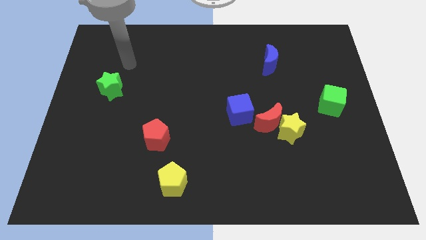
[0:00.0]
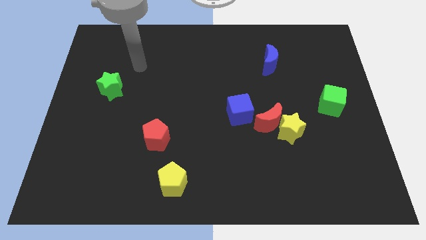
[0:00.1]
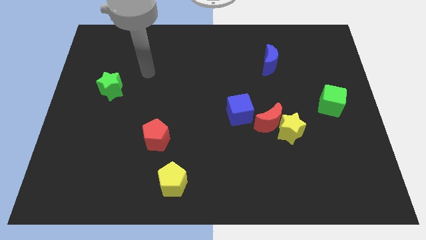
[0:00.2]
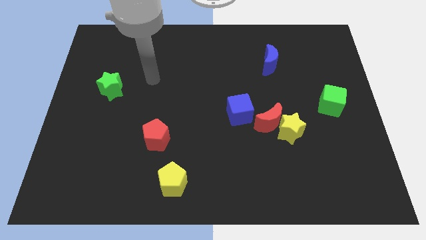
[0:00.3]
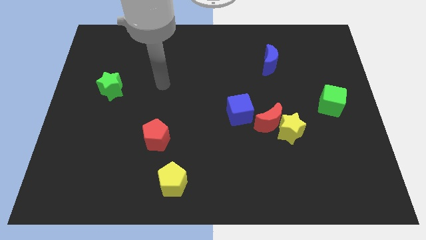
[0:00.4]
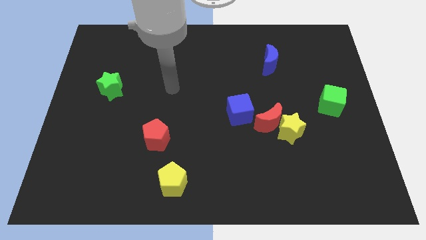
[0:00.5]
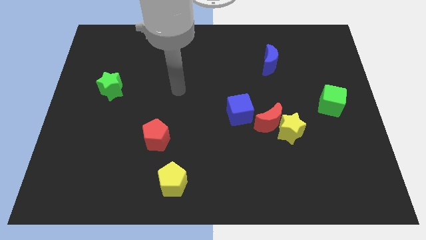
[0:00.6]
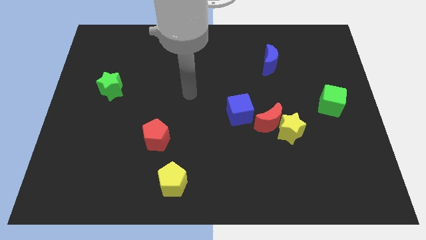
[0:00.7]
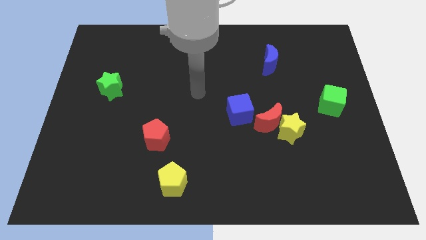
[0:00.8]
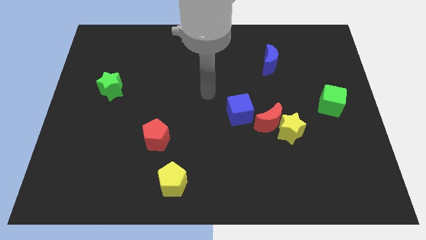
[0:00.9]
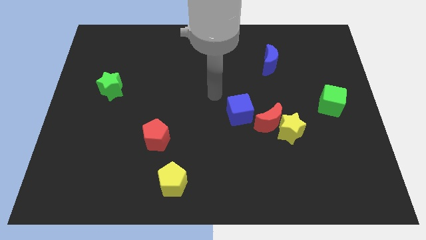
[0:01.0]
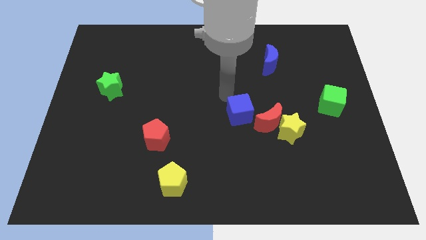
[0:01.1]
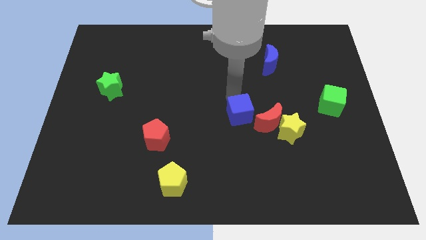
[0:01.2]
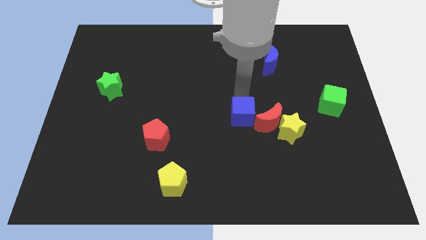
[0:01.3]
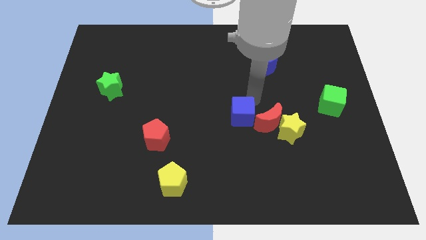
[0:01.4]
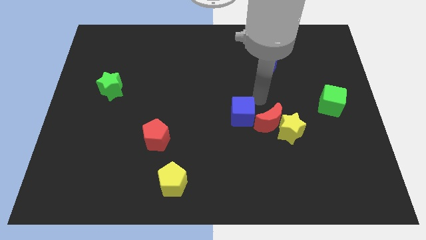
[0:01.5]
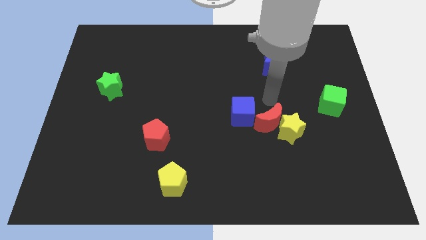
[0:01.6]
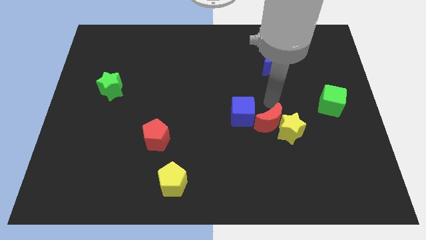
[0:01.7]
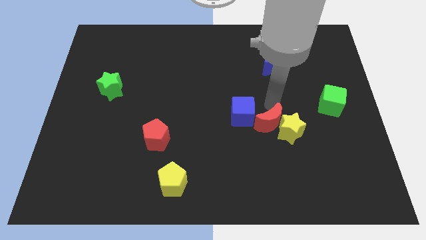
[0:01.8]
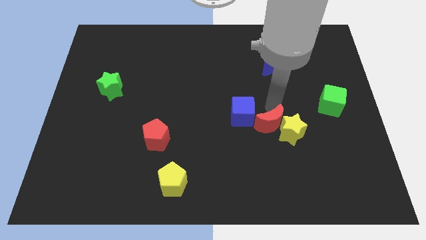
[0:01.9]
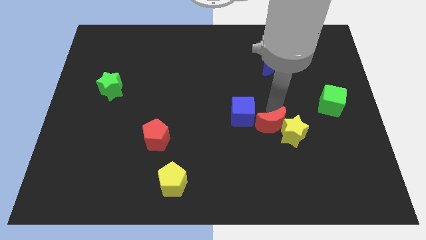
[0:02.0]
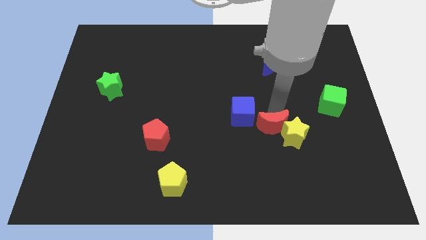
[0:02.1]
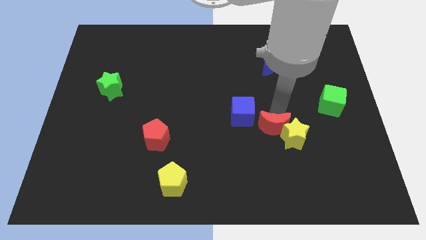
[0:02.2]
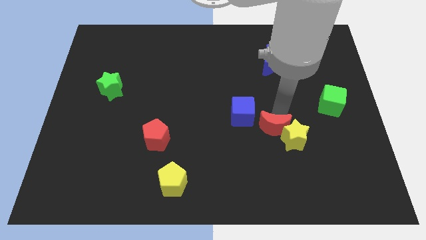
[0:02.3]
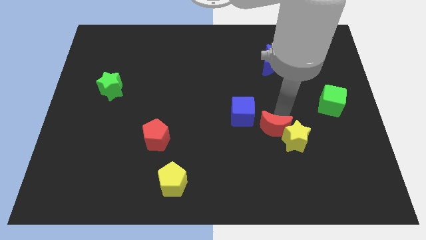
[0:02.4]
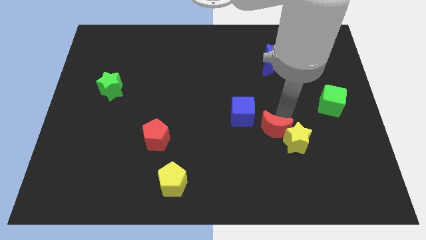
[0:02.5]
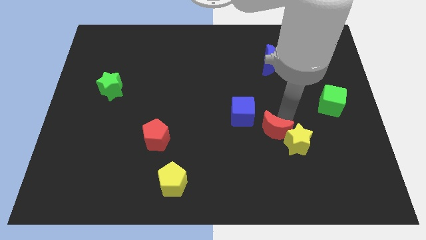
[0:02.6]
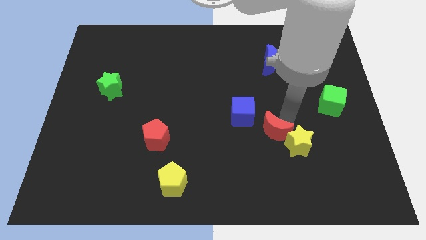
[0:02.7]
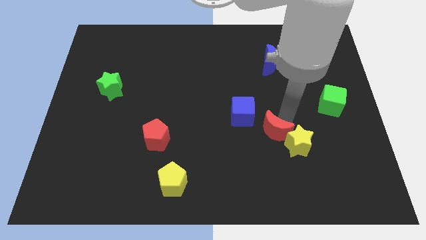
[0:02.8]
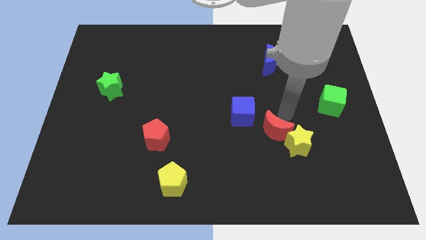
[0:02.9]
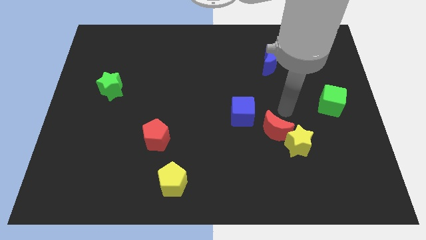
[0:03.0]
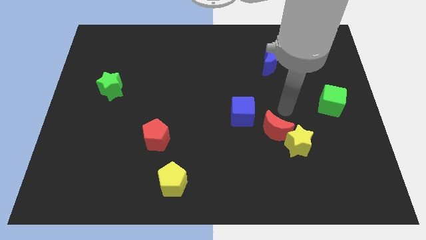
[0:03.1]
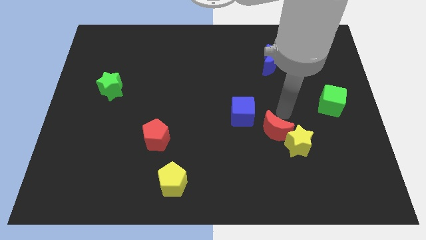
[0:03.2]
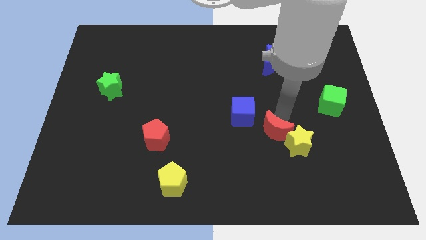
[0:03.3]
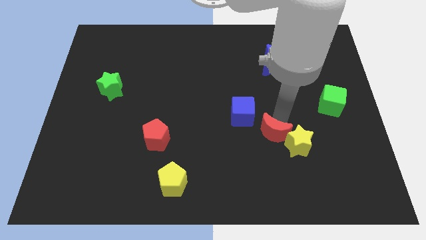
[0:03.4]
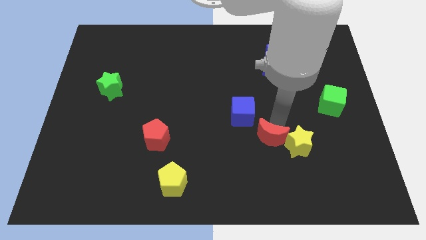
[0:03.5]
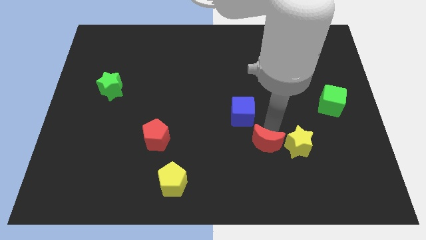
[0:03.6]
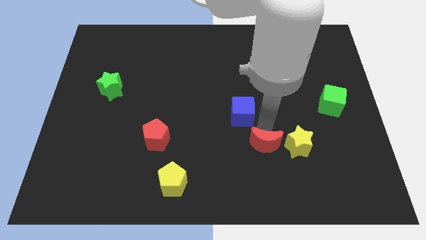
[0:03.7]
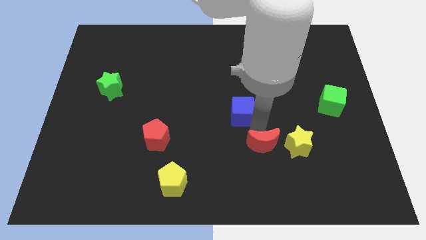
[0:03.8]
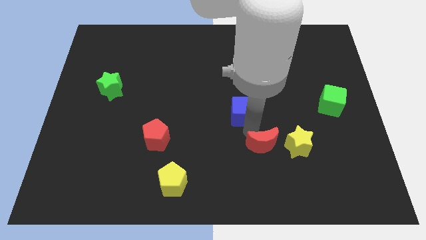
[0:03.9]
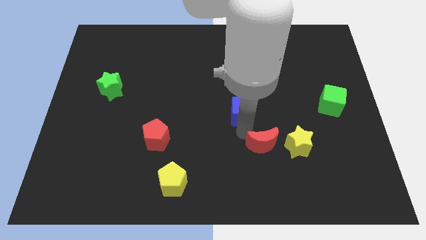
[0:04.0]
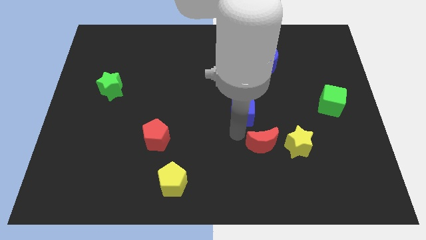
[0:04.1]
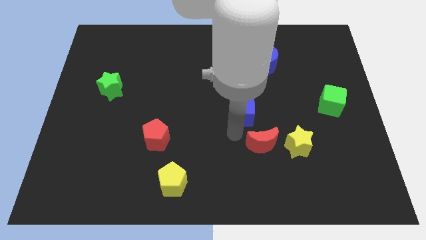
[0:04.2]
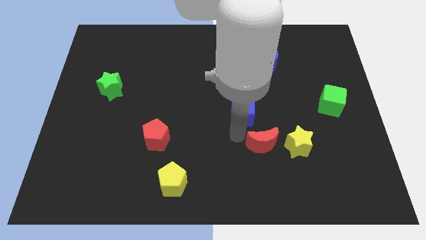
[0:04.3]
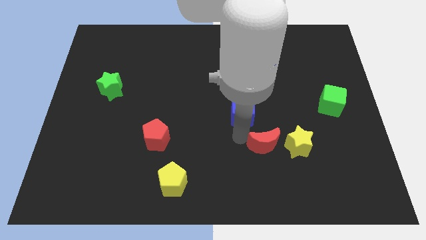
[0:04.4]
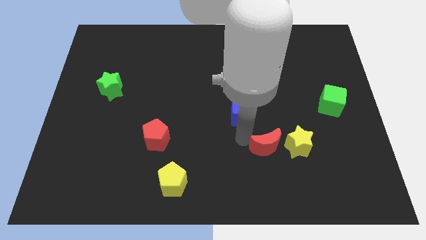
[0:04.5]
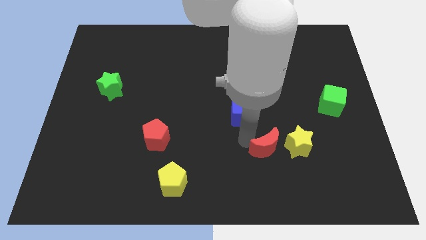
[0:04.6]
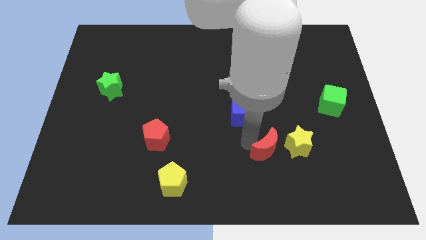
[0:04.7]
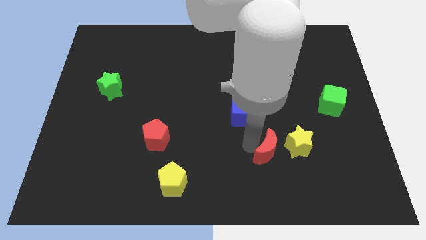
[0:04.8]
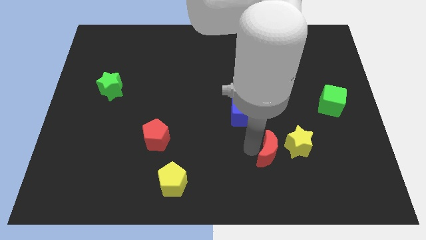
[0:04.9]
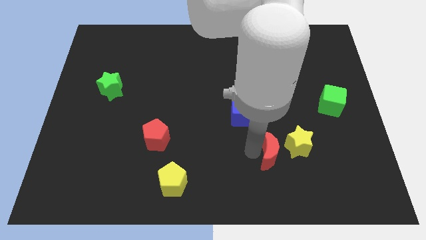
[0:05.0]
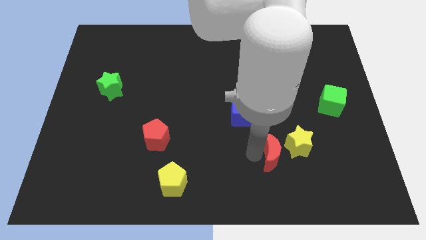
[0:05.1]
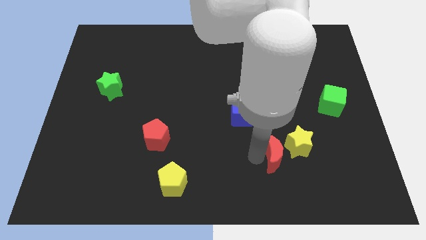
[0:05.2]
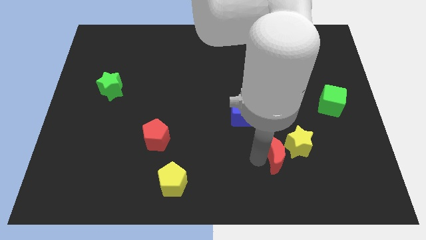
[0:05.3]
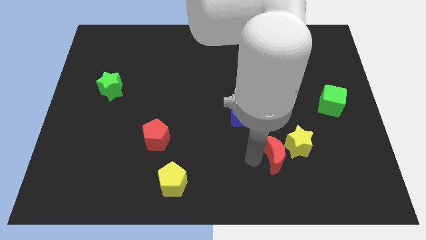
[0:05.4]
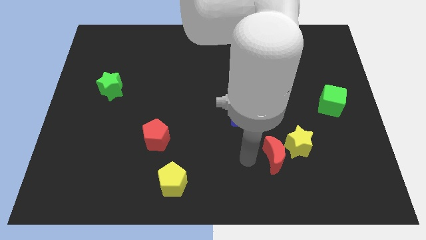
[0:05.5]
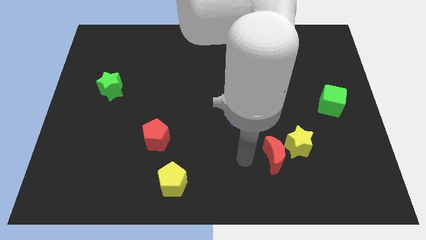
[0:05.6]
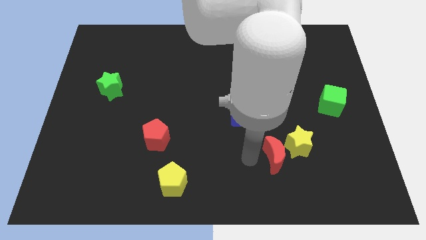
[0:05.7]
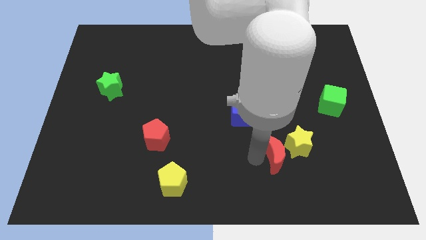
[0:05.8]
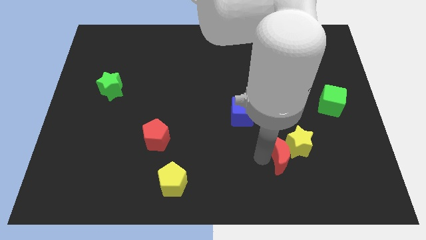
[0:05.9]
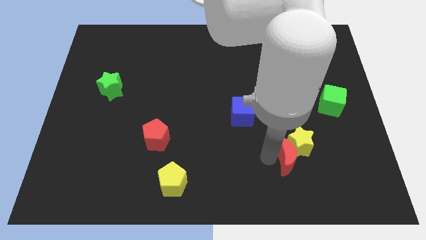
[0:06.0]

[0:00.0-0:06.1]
move the red moon diagonally down and to the right a little bit

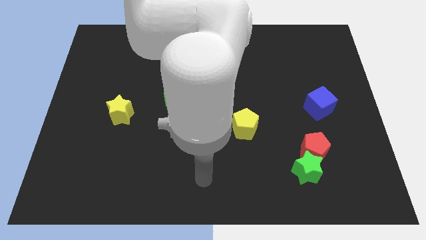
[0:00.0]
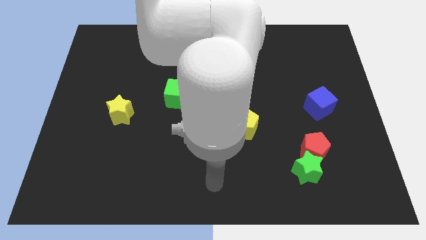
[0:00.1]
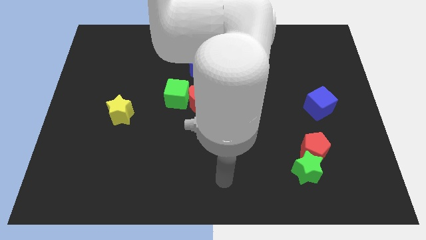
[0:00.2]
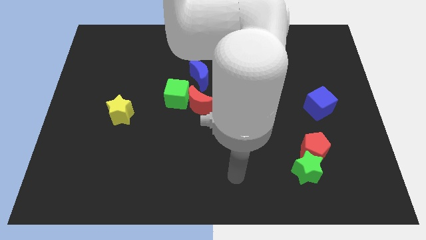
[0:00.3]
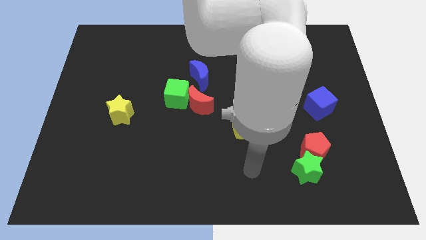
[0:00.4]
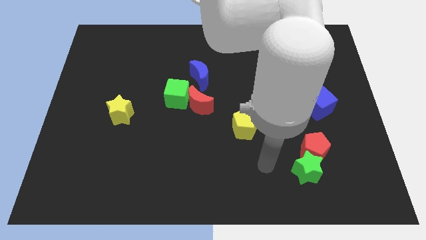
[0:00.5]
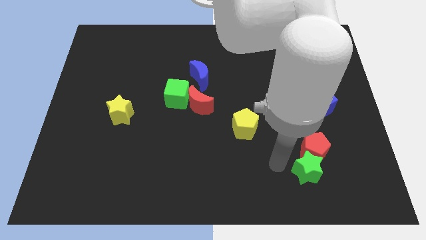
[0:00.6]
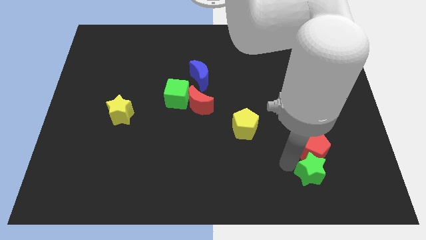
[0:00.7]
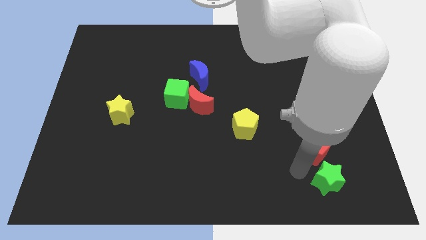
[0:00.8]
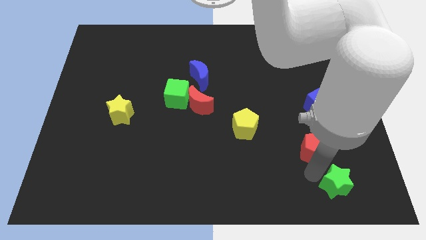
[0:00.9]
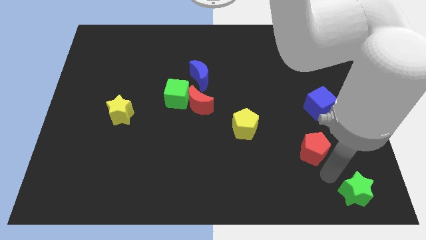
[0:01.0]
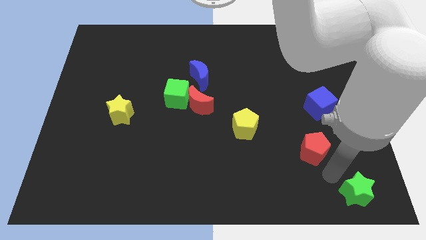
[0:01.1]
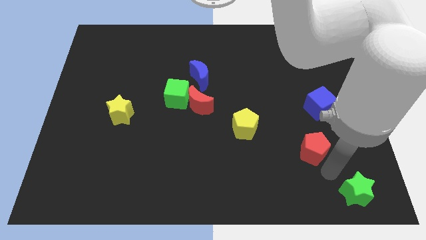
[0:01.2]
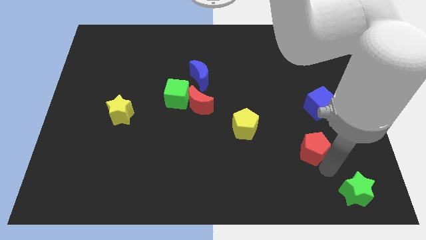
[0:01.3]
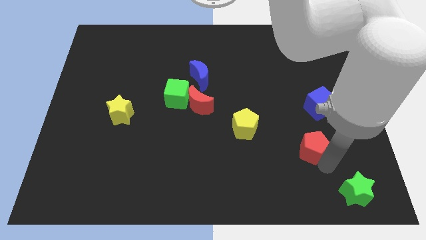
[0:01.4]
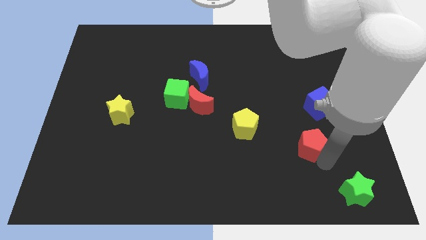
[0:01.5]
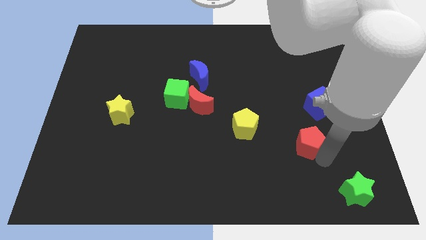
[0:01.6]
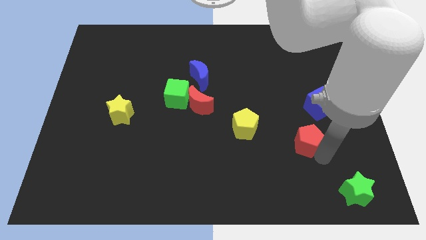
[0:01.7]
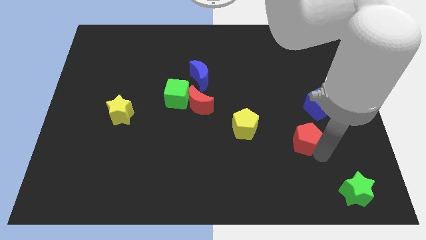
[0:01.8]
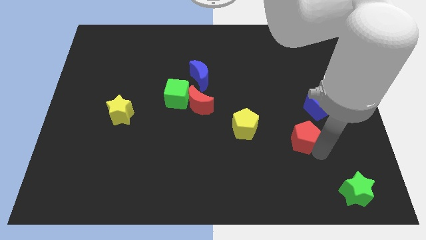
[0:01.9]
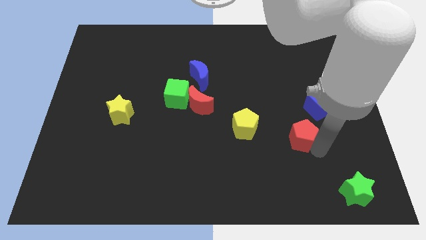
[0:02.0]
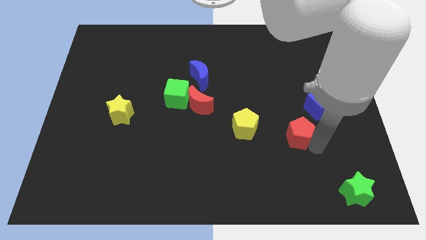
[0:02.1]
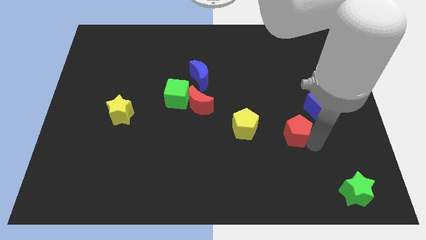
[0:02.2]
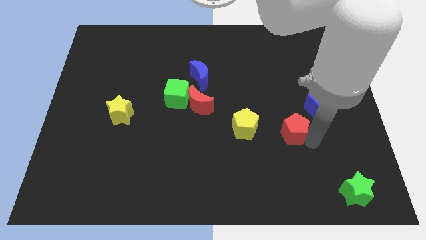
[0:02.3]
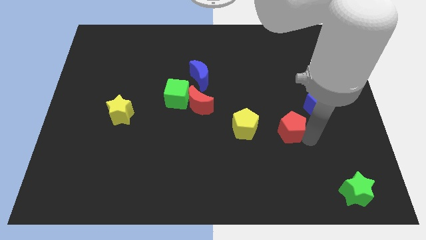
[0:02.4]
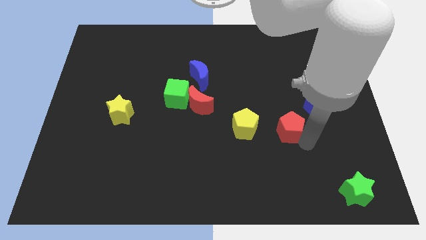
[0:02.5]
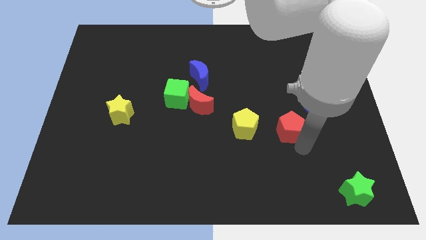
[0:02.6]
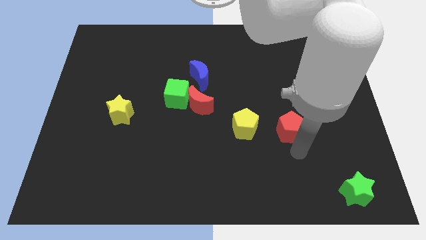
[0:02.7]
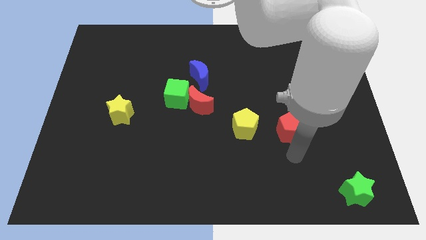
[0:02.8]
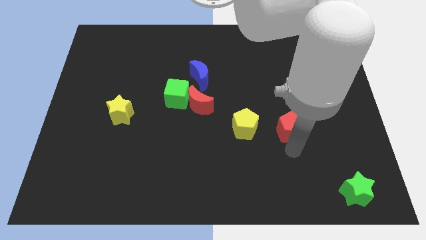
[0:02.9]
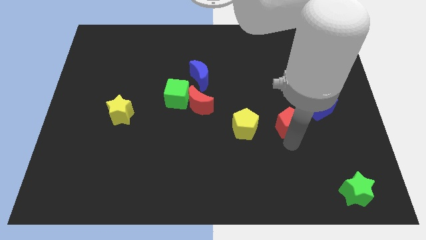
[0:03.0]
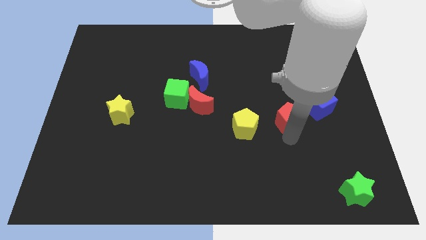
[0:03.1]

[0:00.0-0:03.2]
slide the red pentagon slightly upwards
